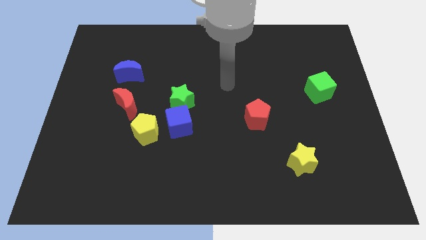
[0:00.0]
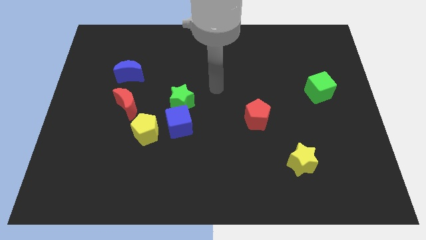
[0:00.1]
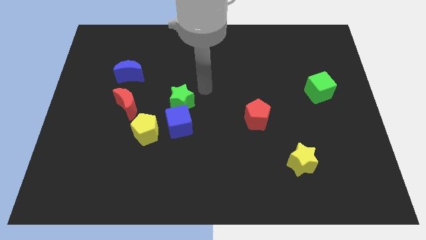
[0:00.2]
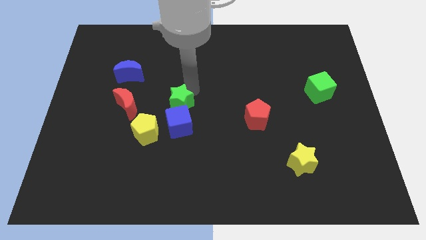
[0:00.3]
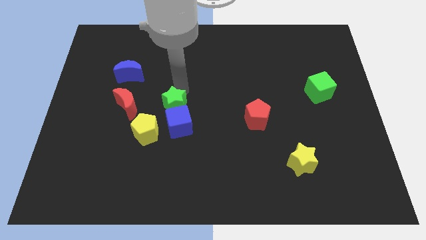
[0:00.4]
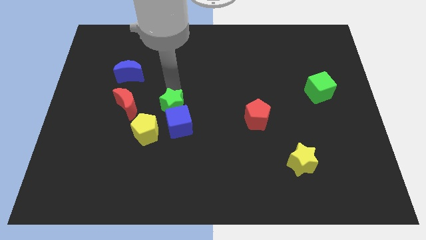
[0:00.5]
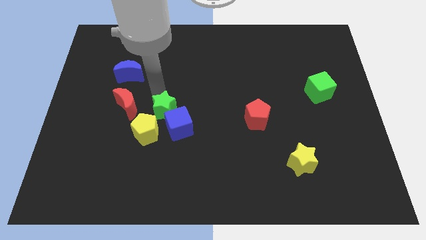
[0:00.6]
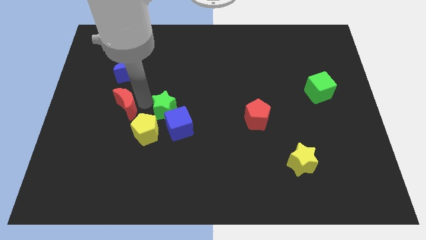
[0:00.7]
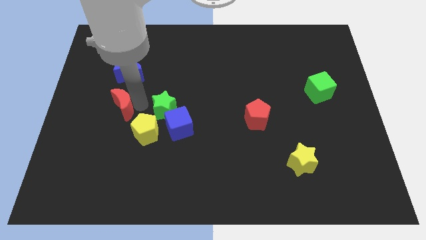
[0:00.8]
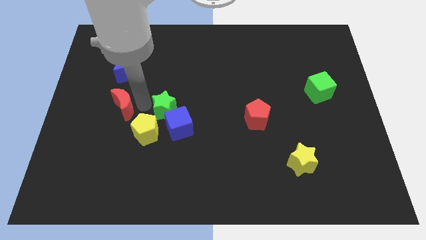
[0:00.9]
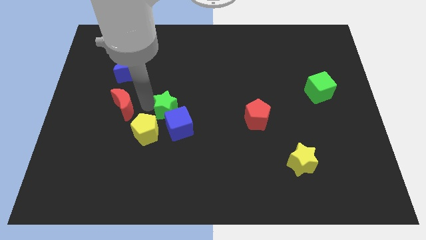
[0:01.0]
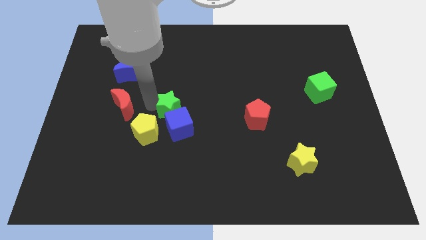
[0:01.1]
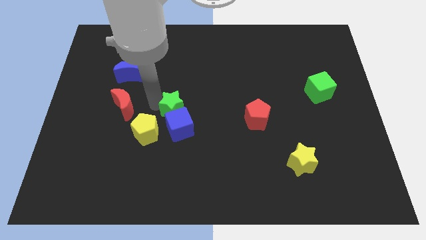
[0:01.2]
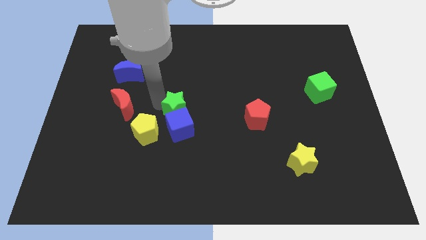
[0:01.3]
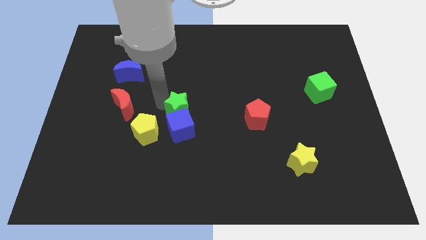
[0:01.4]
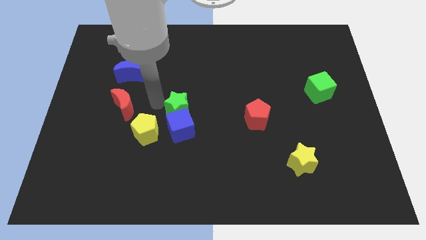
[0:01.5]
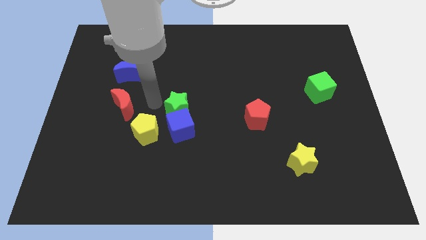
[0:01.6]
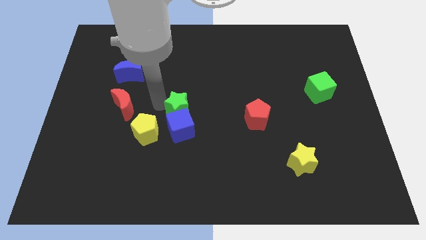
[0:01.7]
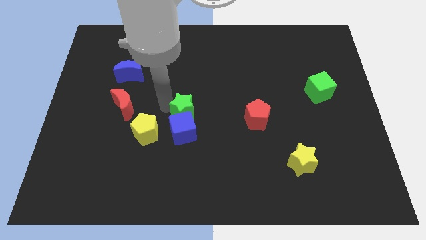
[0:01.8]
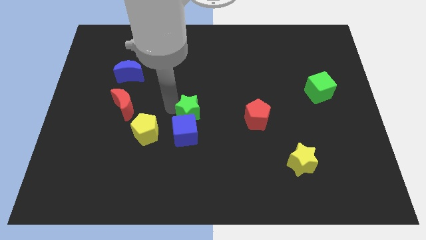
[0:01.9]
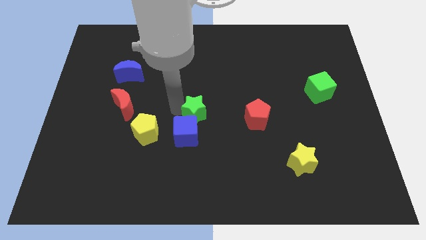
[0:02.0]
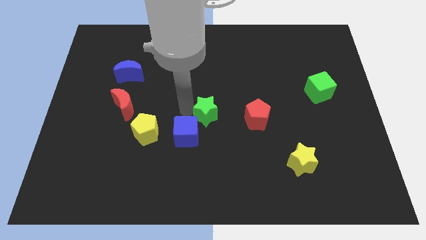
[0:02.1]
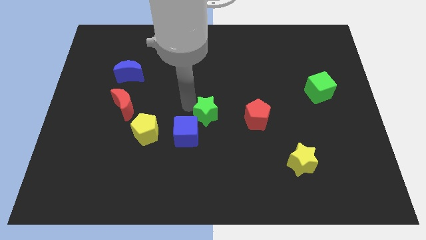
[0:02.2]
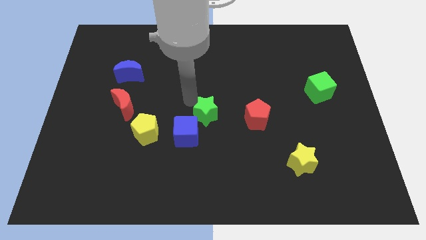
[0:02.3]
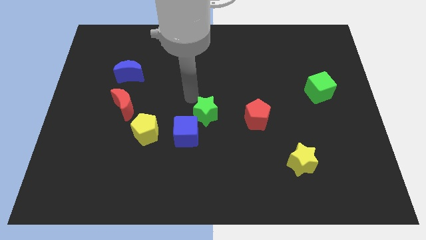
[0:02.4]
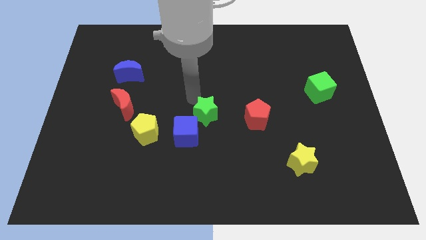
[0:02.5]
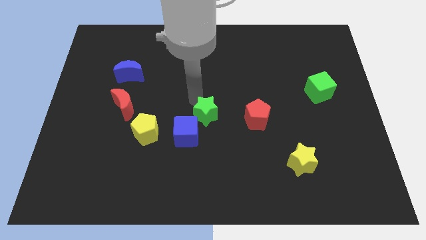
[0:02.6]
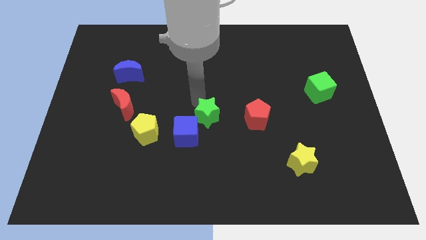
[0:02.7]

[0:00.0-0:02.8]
push the green star somewhat diagonally down and right

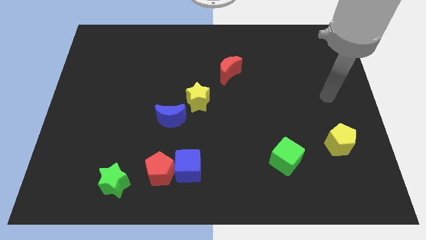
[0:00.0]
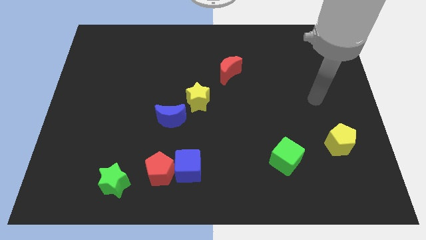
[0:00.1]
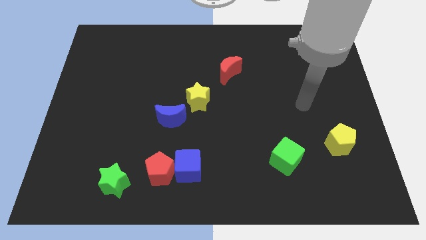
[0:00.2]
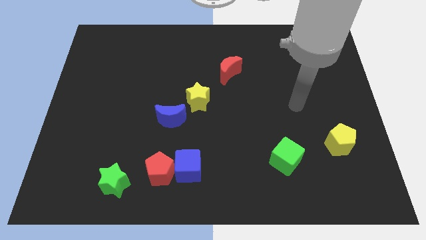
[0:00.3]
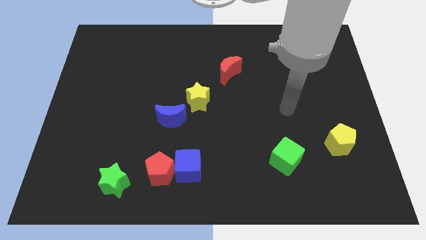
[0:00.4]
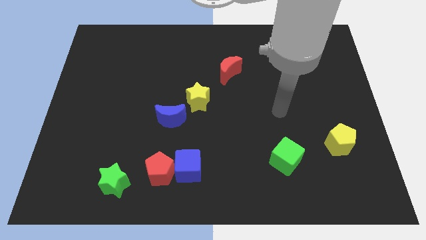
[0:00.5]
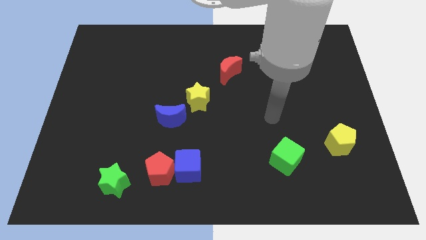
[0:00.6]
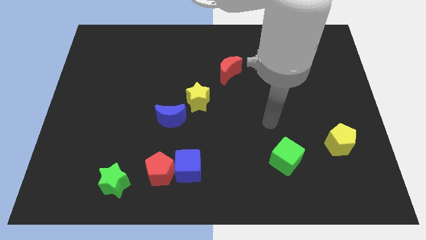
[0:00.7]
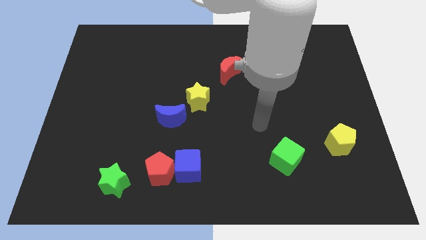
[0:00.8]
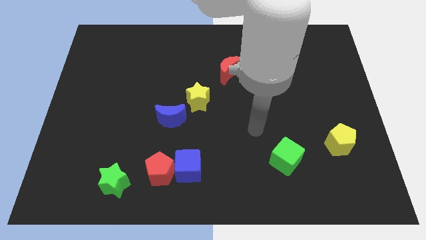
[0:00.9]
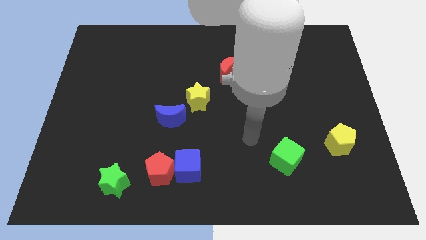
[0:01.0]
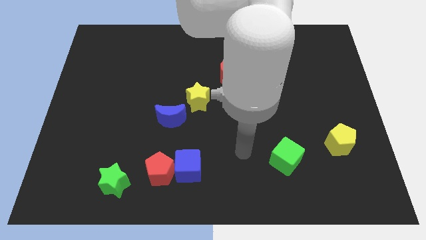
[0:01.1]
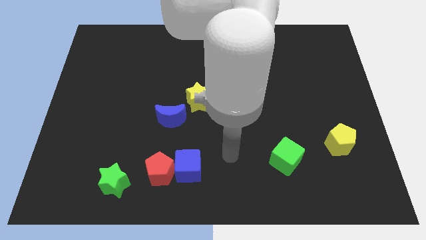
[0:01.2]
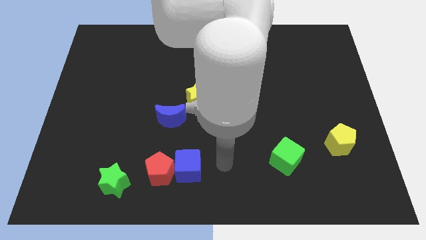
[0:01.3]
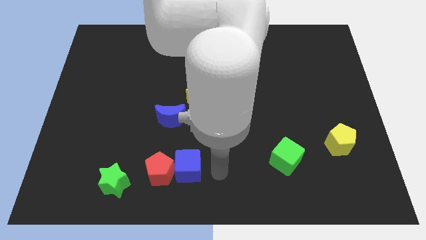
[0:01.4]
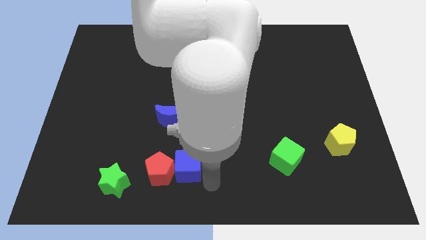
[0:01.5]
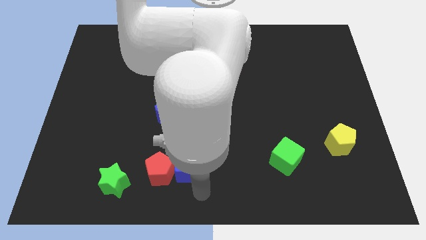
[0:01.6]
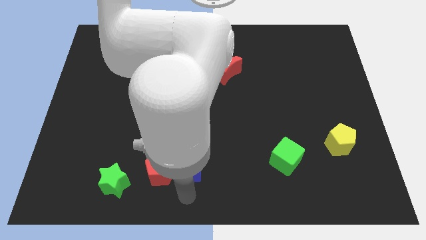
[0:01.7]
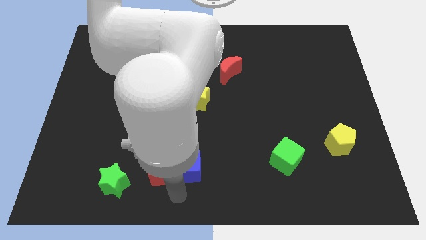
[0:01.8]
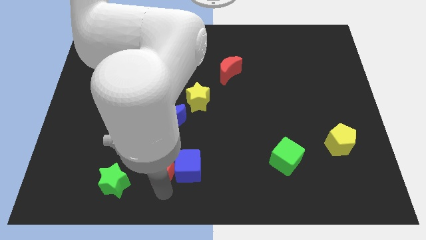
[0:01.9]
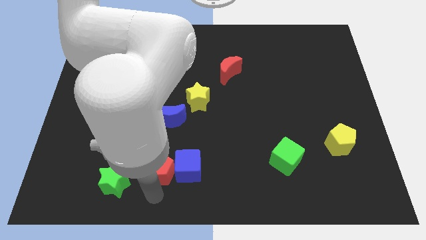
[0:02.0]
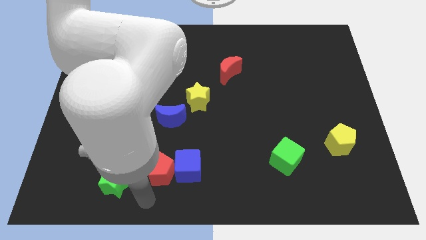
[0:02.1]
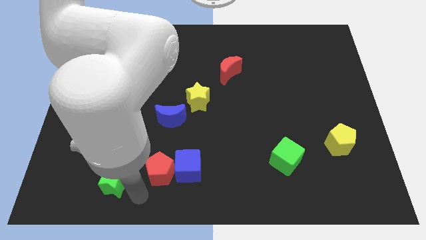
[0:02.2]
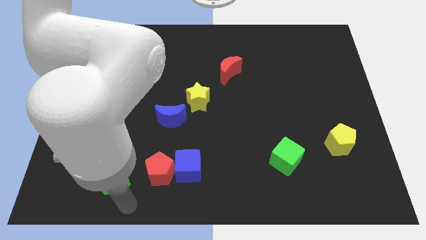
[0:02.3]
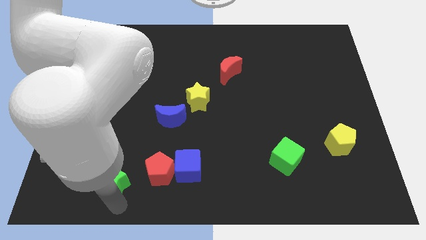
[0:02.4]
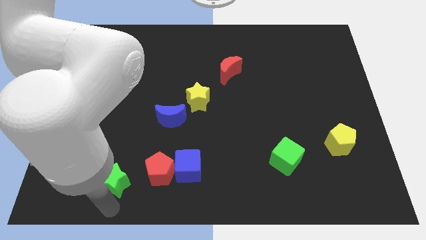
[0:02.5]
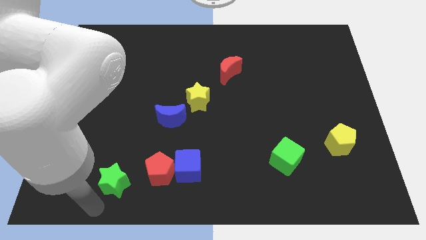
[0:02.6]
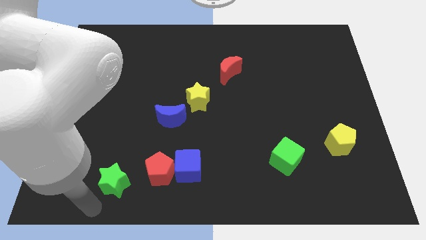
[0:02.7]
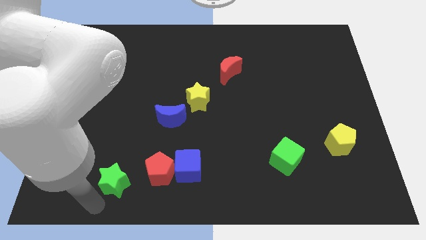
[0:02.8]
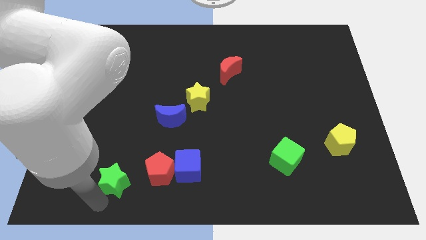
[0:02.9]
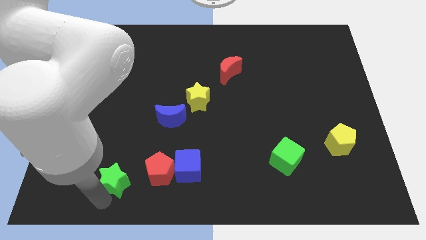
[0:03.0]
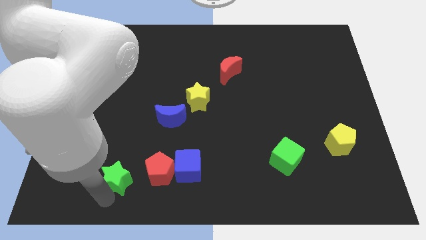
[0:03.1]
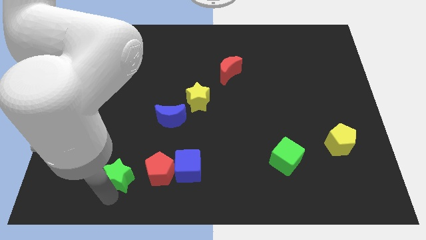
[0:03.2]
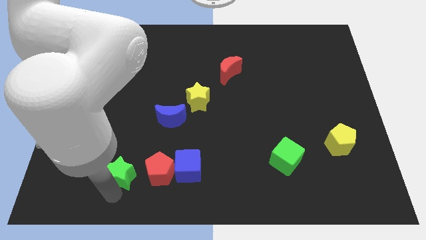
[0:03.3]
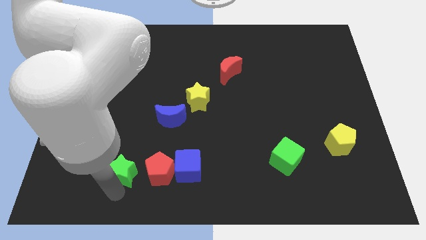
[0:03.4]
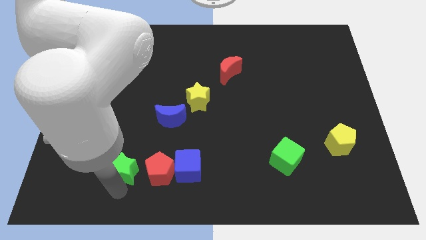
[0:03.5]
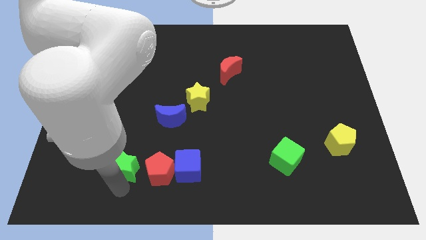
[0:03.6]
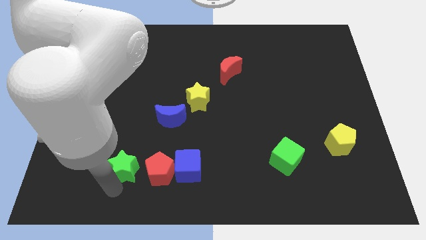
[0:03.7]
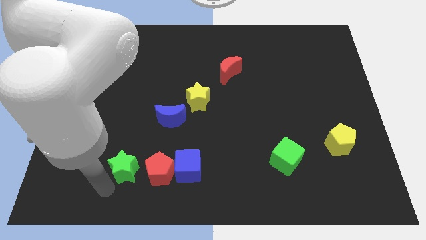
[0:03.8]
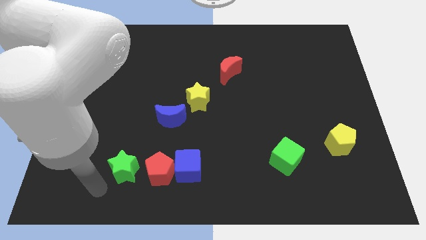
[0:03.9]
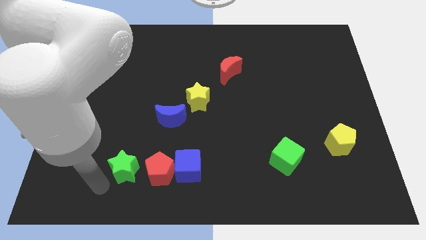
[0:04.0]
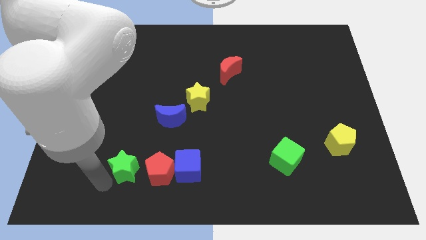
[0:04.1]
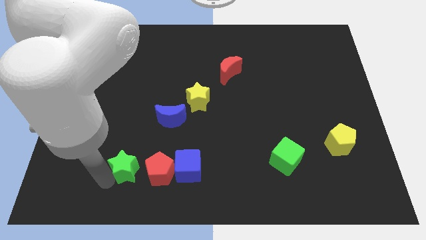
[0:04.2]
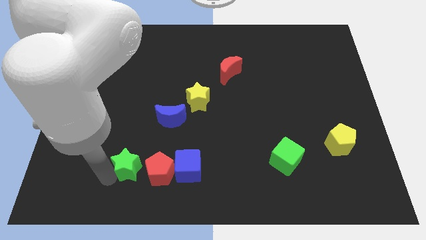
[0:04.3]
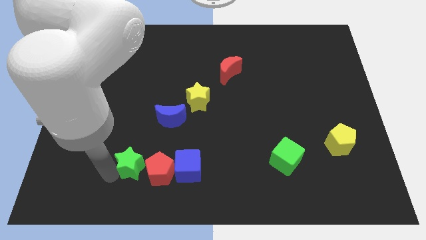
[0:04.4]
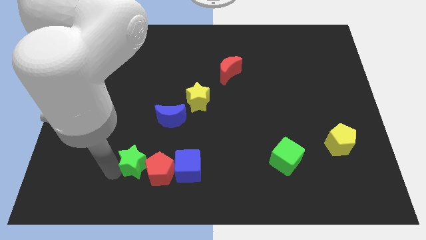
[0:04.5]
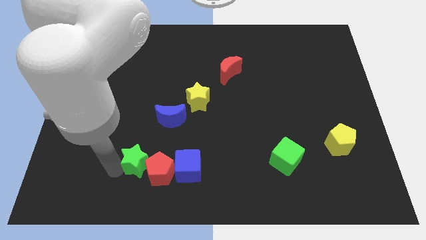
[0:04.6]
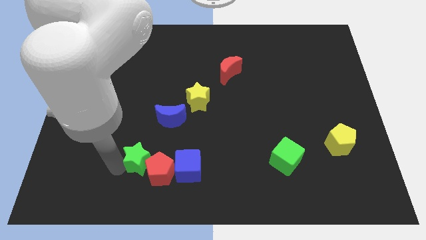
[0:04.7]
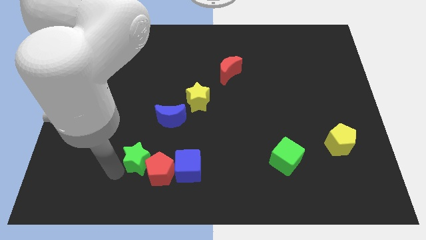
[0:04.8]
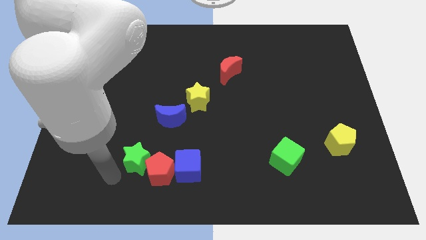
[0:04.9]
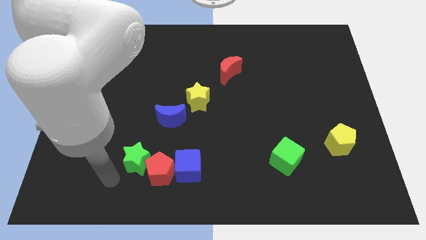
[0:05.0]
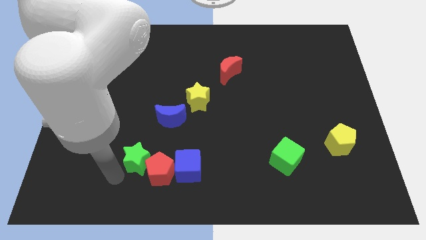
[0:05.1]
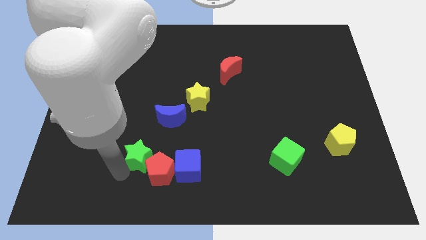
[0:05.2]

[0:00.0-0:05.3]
slide the green star diagonally upwards and to the right slightly
